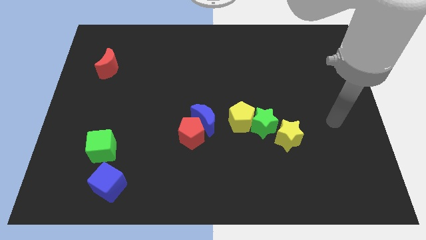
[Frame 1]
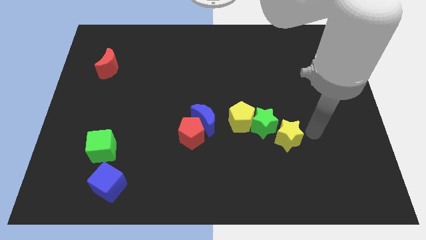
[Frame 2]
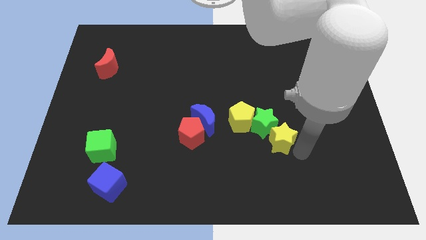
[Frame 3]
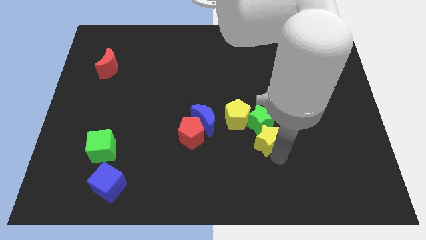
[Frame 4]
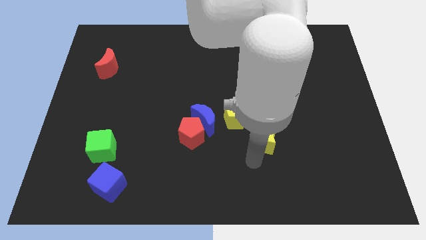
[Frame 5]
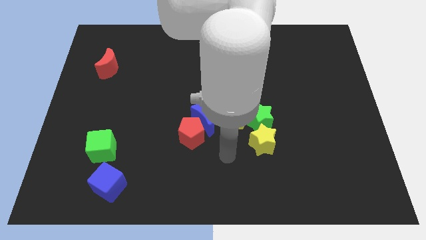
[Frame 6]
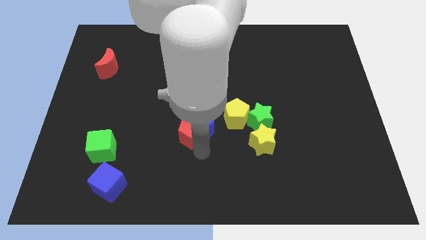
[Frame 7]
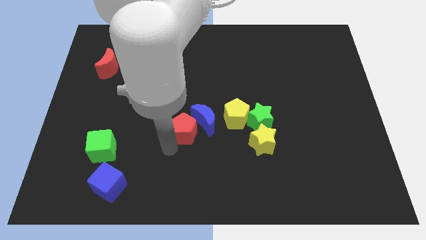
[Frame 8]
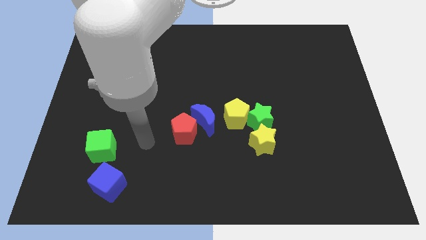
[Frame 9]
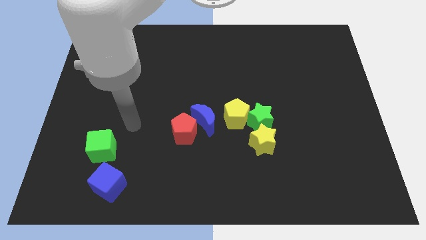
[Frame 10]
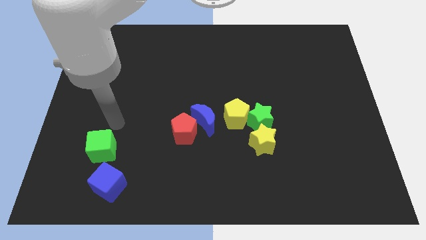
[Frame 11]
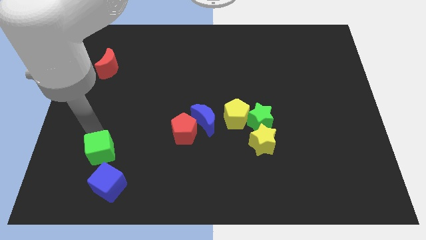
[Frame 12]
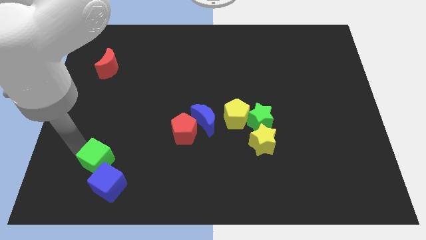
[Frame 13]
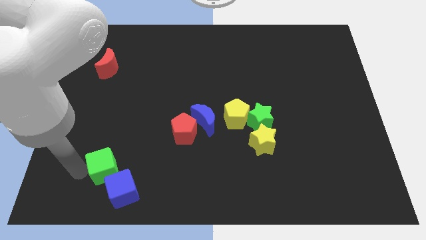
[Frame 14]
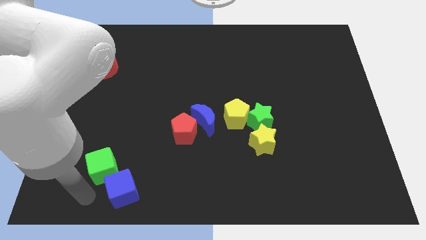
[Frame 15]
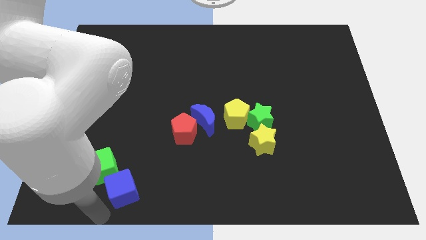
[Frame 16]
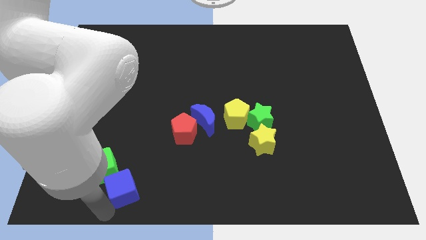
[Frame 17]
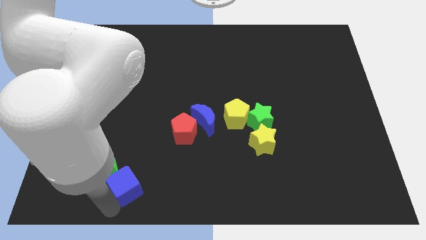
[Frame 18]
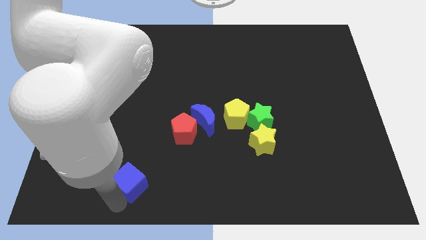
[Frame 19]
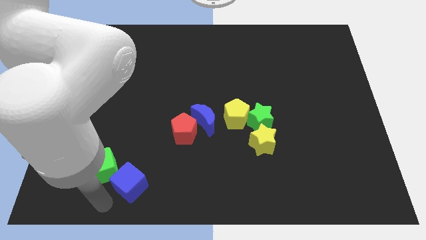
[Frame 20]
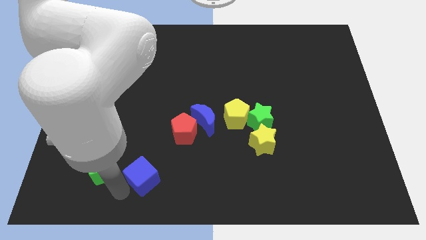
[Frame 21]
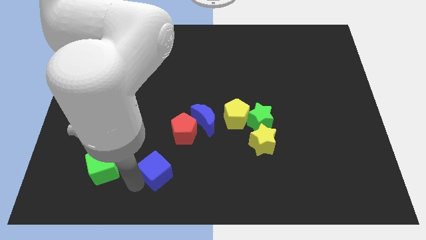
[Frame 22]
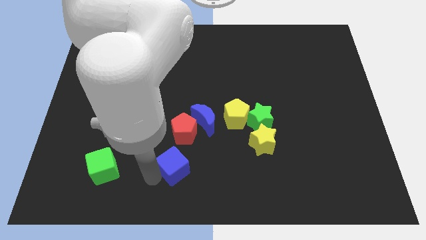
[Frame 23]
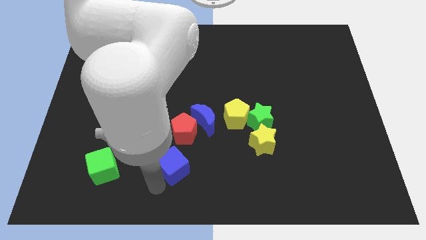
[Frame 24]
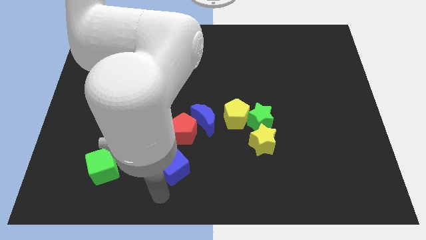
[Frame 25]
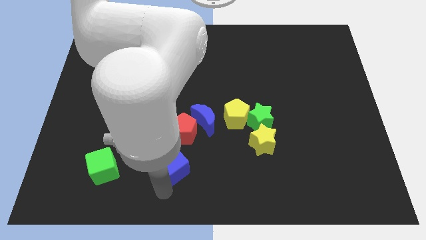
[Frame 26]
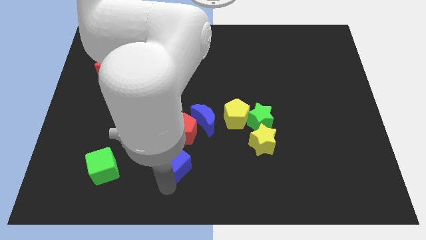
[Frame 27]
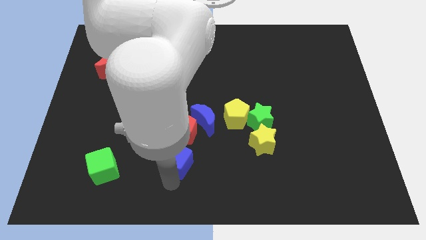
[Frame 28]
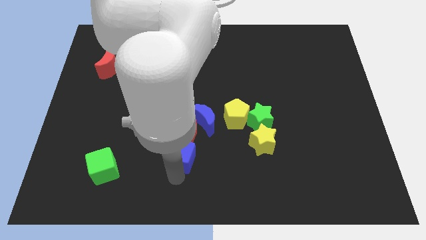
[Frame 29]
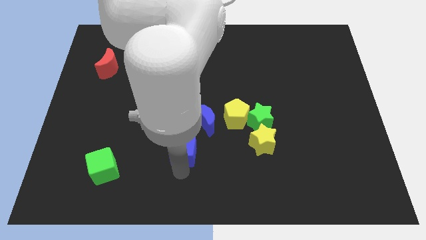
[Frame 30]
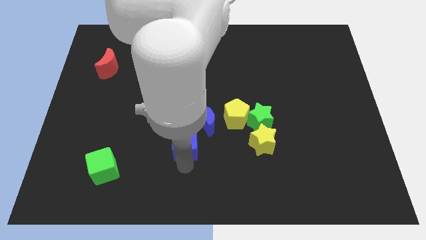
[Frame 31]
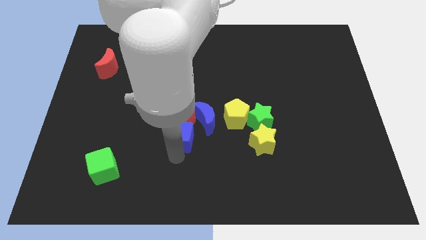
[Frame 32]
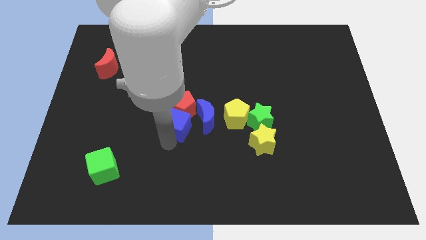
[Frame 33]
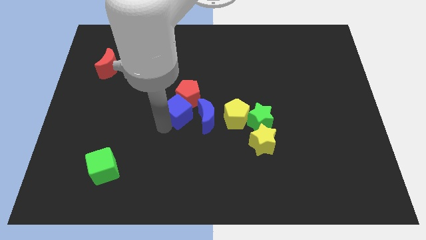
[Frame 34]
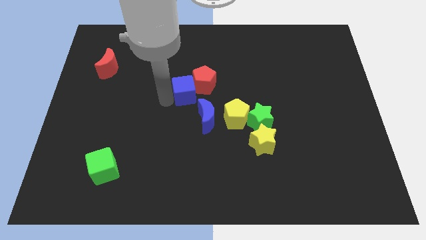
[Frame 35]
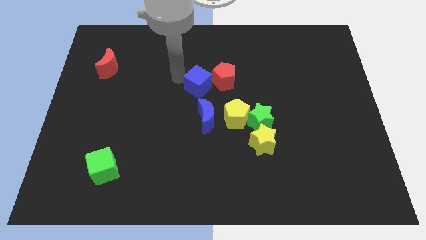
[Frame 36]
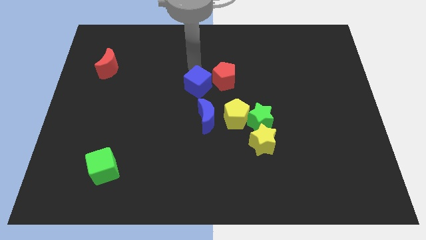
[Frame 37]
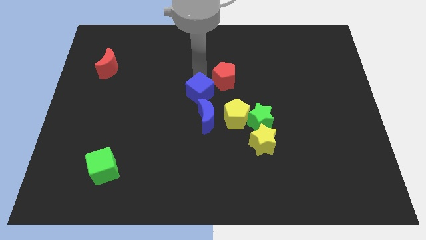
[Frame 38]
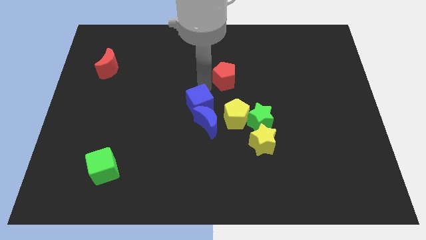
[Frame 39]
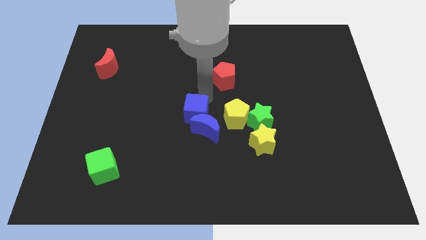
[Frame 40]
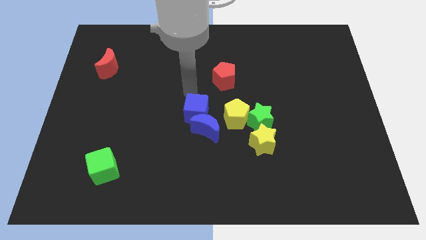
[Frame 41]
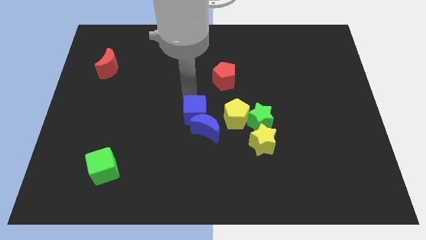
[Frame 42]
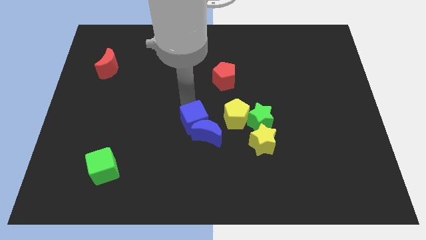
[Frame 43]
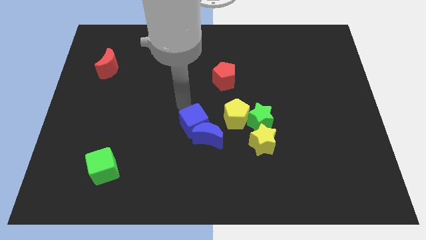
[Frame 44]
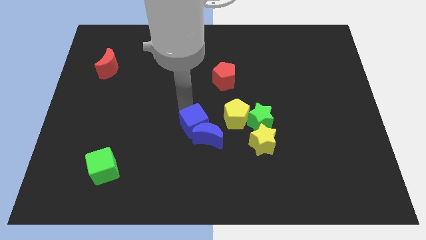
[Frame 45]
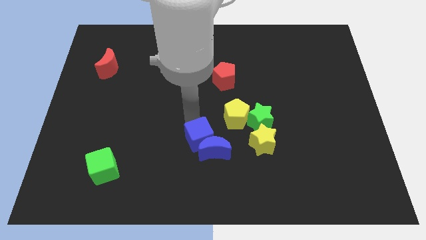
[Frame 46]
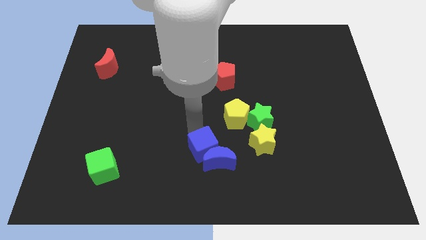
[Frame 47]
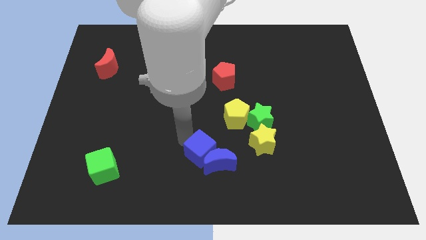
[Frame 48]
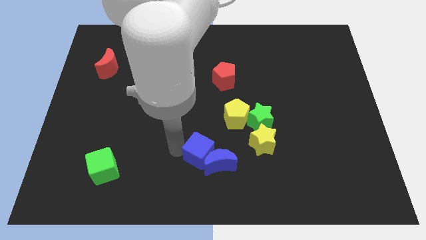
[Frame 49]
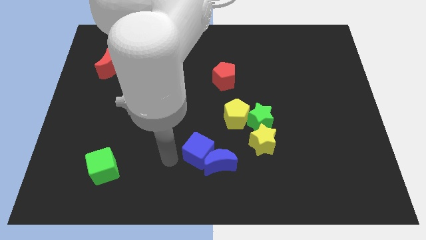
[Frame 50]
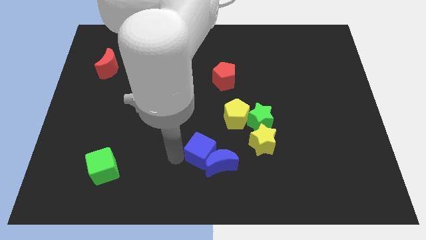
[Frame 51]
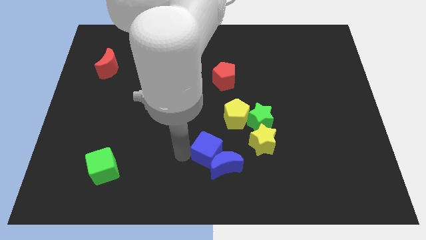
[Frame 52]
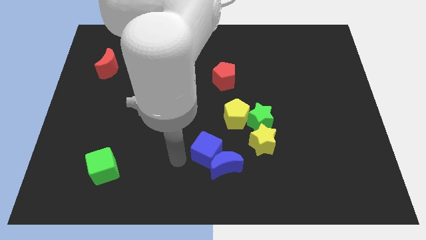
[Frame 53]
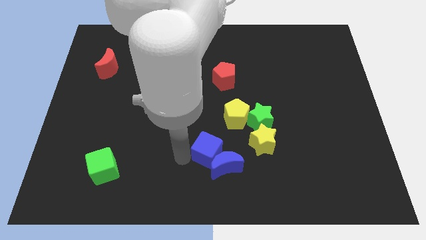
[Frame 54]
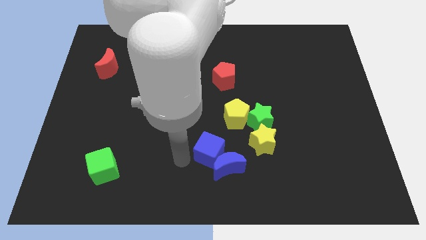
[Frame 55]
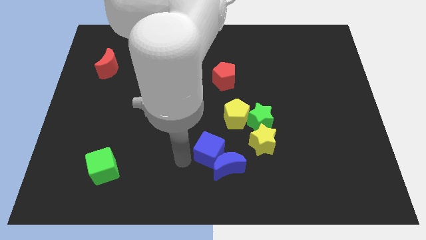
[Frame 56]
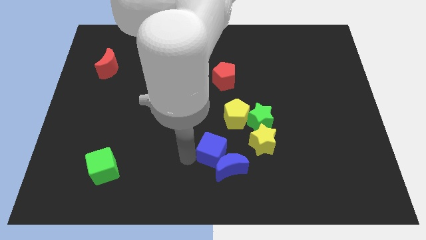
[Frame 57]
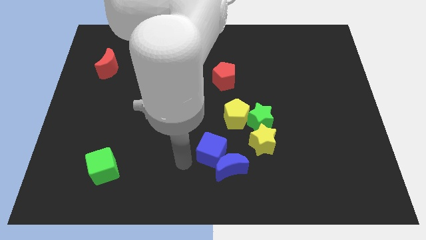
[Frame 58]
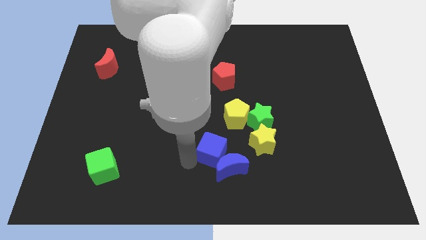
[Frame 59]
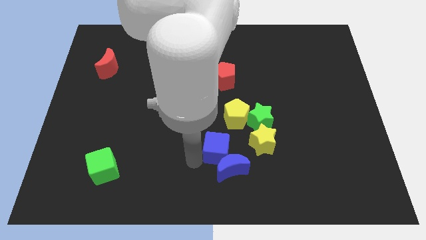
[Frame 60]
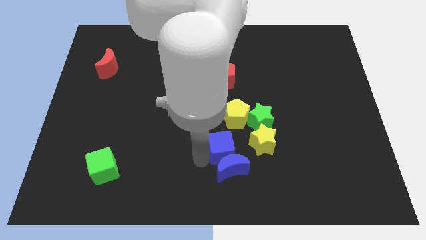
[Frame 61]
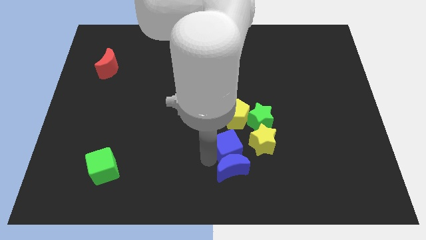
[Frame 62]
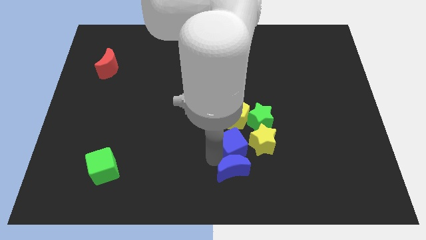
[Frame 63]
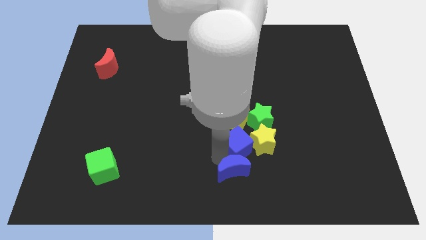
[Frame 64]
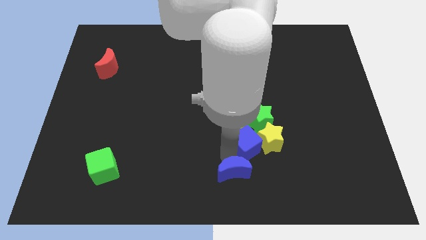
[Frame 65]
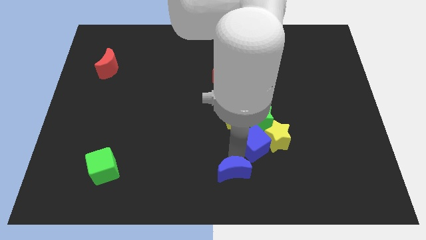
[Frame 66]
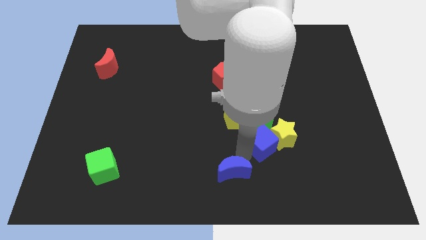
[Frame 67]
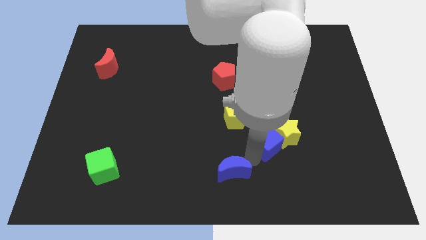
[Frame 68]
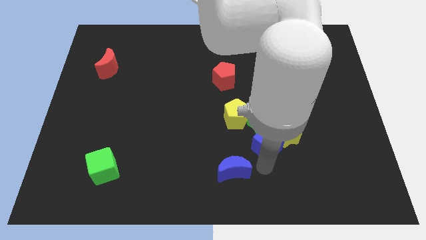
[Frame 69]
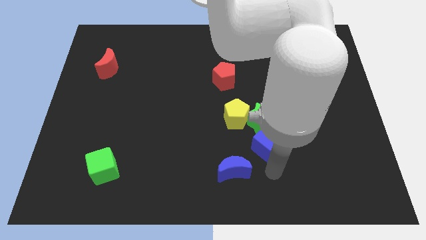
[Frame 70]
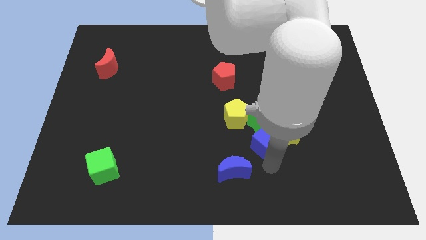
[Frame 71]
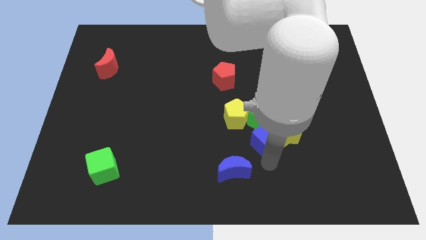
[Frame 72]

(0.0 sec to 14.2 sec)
move the blue cube towards the green star

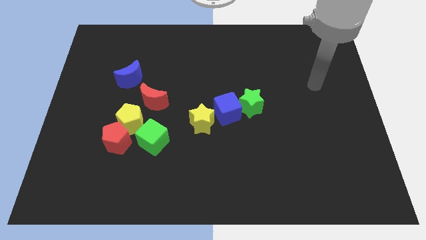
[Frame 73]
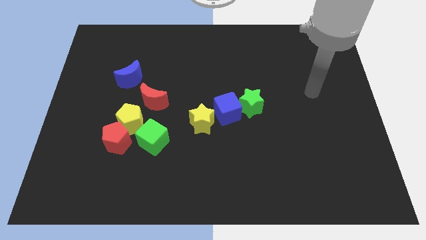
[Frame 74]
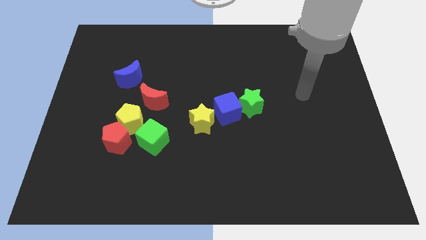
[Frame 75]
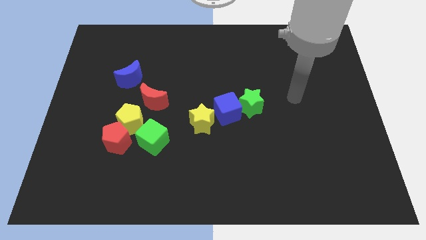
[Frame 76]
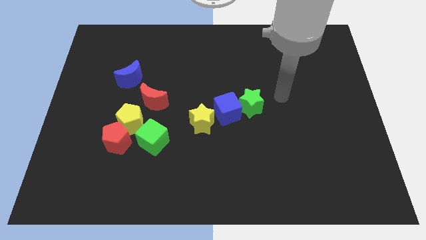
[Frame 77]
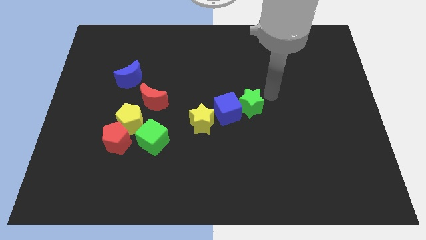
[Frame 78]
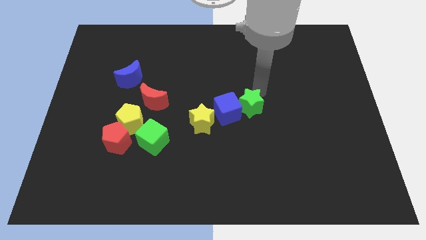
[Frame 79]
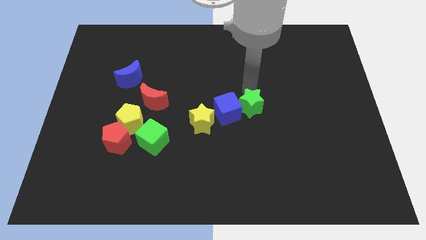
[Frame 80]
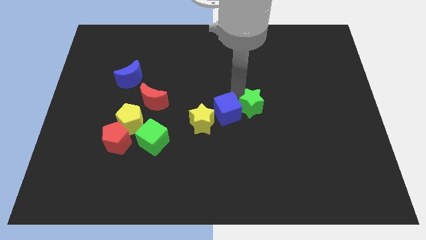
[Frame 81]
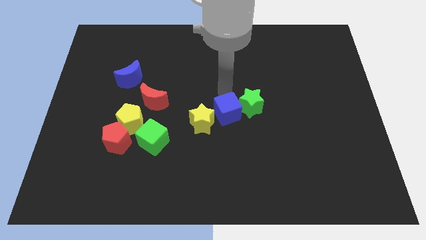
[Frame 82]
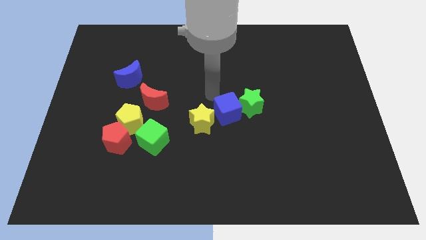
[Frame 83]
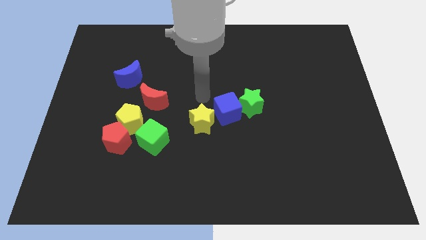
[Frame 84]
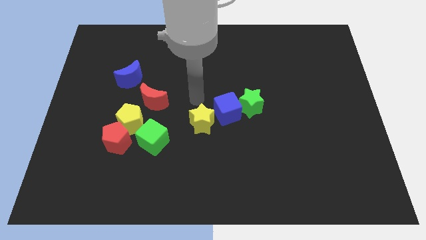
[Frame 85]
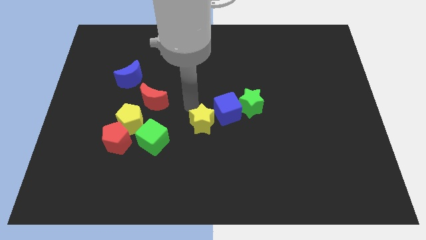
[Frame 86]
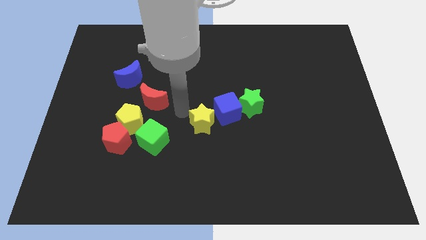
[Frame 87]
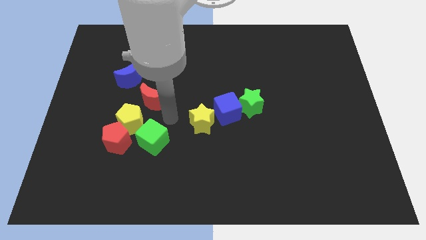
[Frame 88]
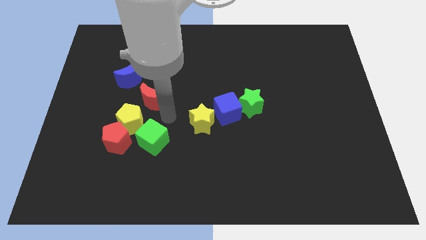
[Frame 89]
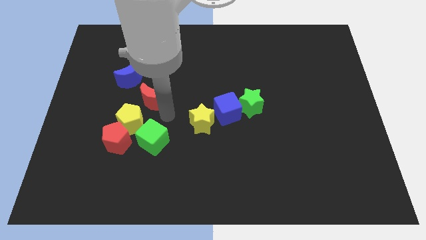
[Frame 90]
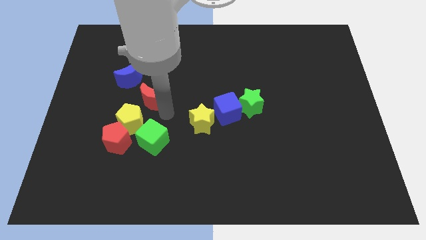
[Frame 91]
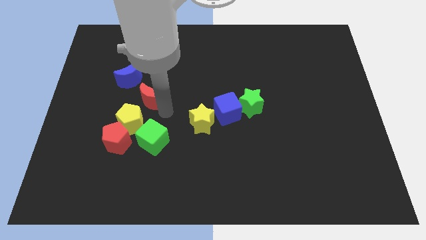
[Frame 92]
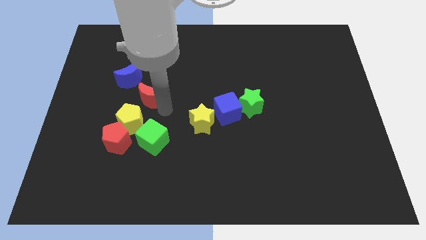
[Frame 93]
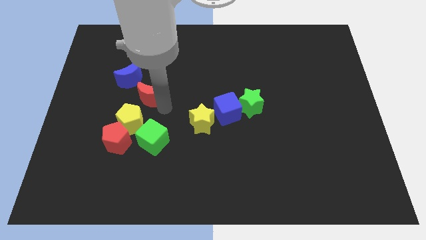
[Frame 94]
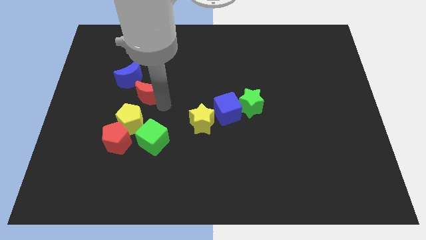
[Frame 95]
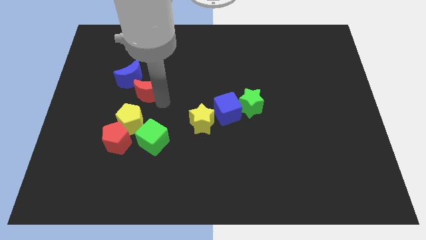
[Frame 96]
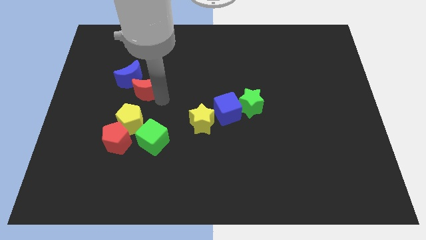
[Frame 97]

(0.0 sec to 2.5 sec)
move the red moon next to the blue moon
